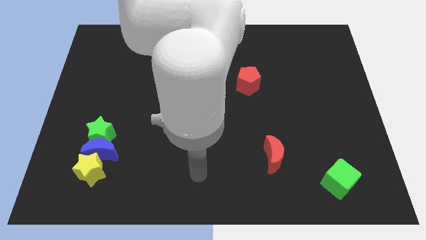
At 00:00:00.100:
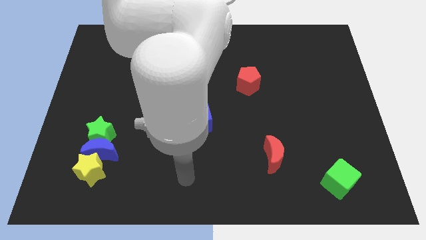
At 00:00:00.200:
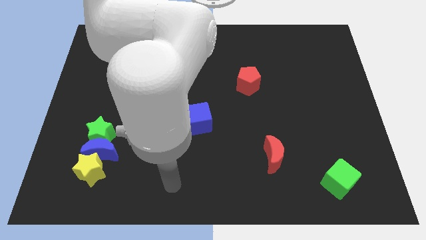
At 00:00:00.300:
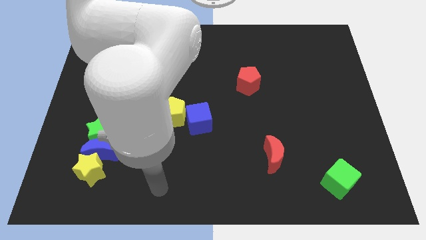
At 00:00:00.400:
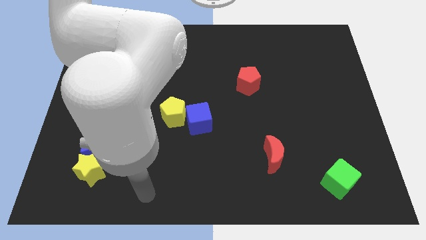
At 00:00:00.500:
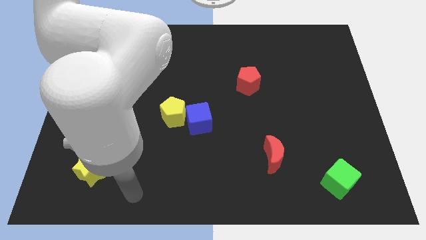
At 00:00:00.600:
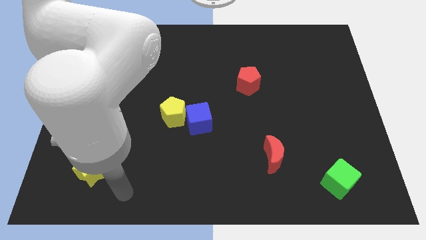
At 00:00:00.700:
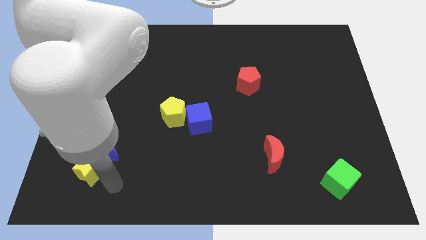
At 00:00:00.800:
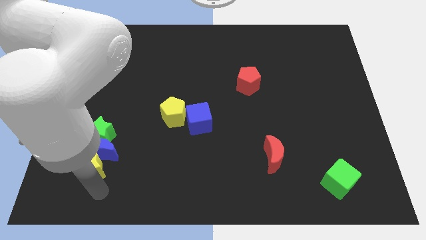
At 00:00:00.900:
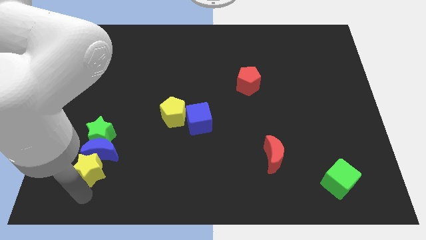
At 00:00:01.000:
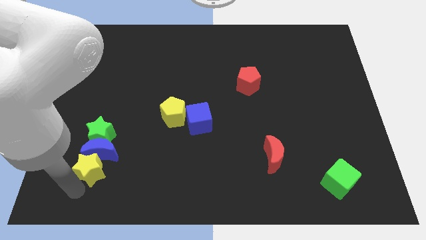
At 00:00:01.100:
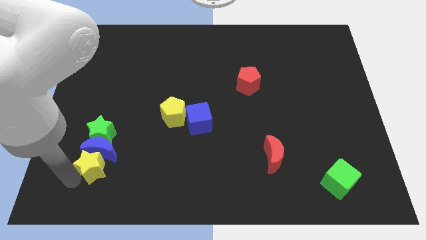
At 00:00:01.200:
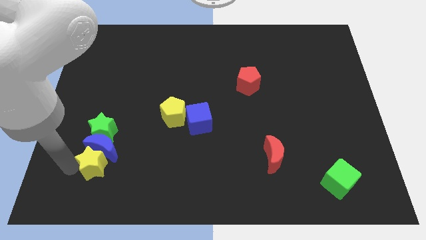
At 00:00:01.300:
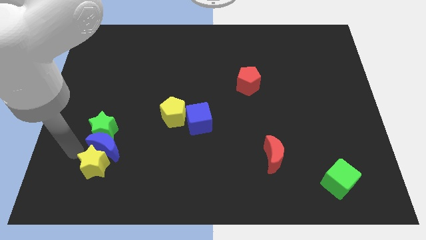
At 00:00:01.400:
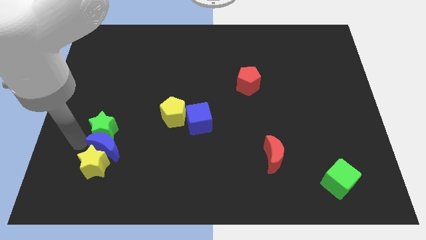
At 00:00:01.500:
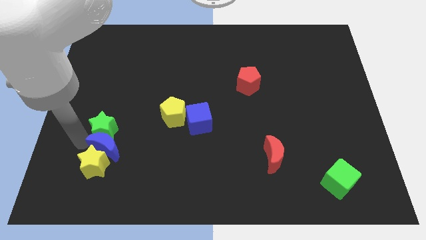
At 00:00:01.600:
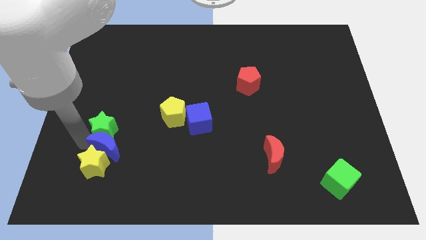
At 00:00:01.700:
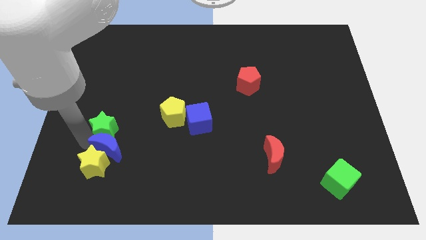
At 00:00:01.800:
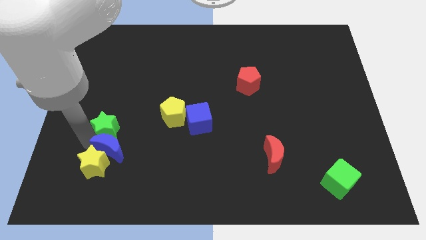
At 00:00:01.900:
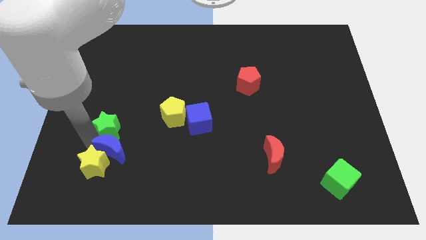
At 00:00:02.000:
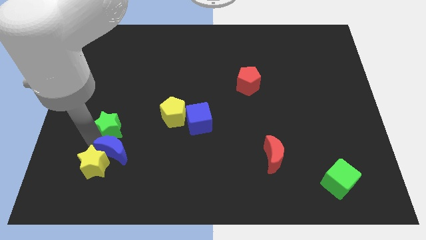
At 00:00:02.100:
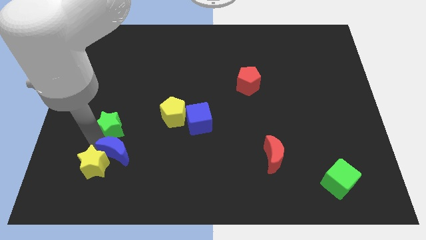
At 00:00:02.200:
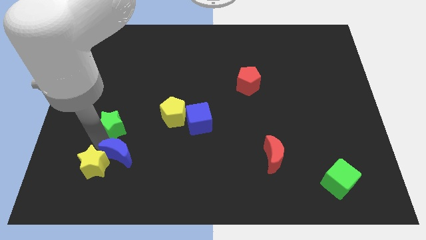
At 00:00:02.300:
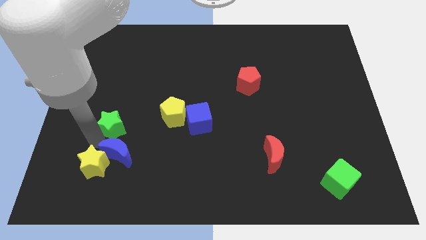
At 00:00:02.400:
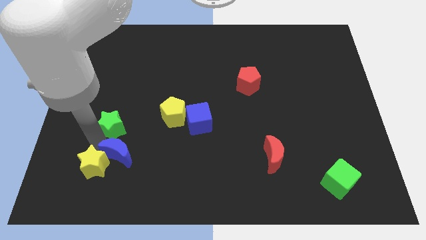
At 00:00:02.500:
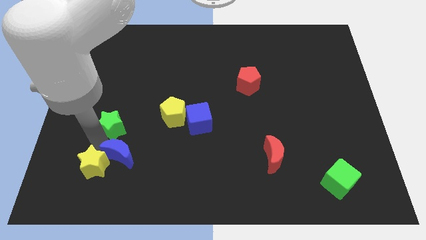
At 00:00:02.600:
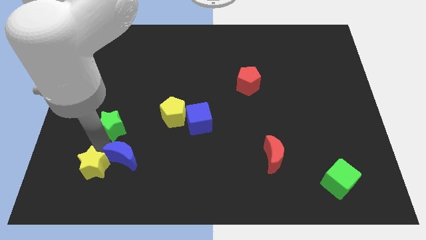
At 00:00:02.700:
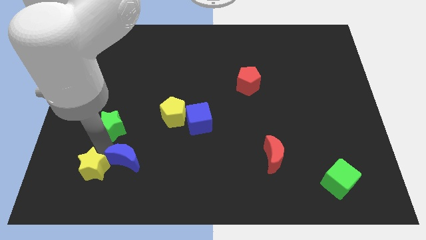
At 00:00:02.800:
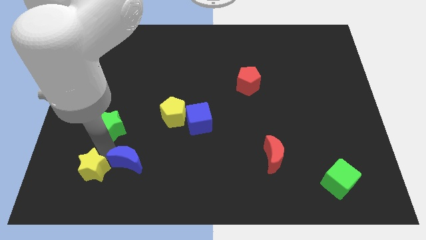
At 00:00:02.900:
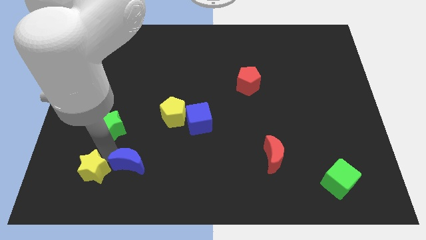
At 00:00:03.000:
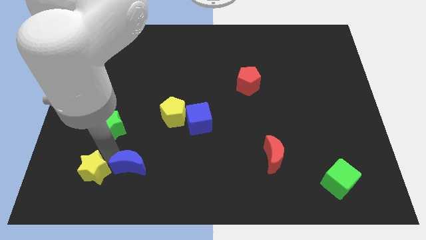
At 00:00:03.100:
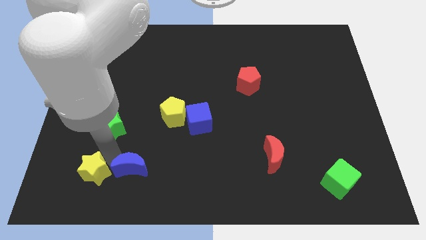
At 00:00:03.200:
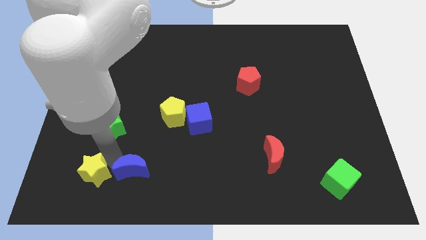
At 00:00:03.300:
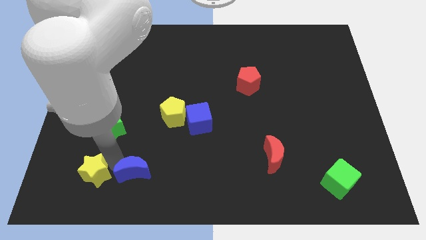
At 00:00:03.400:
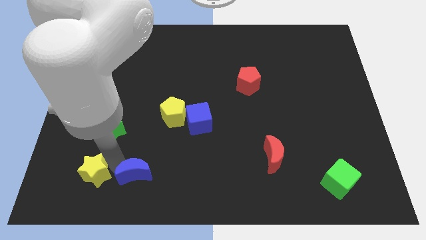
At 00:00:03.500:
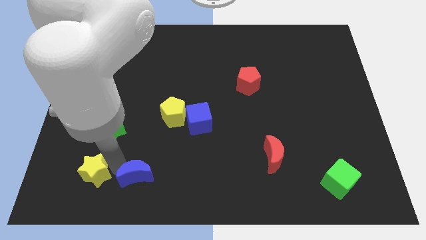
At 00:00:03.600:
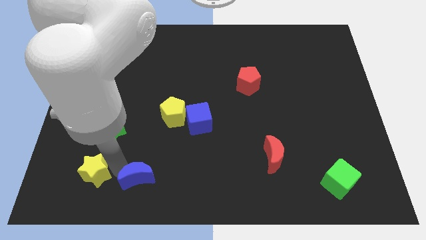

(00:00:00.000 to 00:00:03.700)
move the blue moon away from the green star and yellow star

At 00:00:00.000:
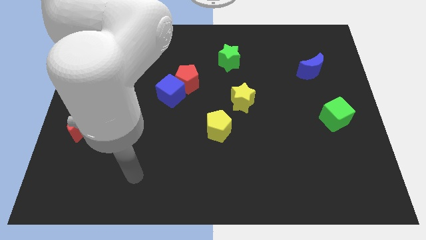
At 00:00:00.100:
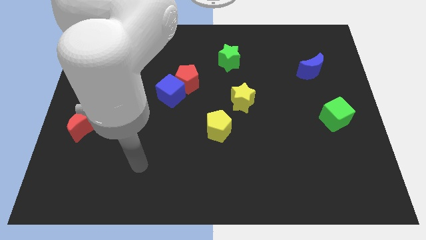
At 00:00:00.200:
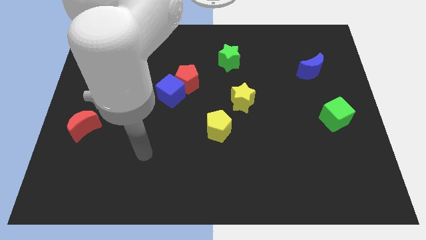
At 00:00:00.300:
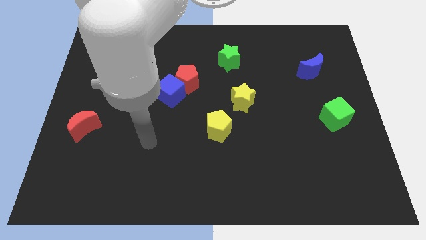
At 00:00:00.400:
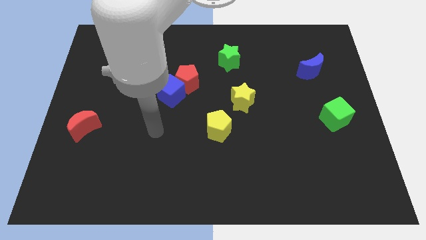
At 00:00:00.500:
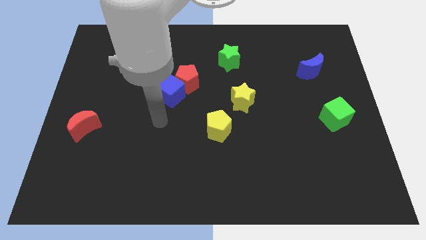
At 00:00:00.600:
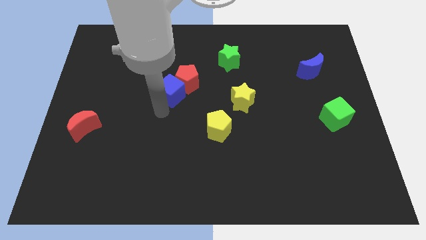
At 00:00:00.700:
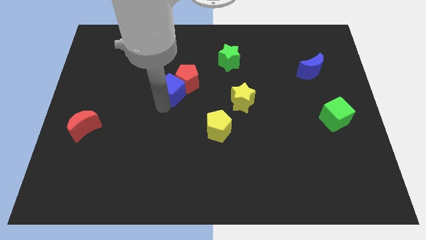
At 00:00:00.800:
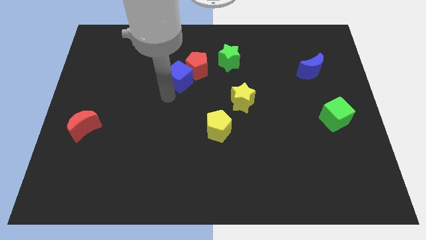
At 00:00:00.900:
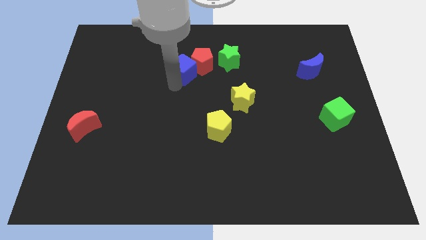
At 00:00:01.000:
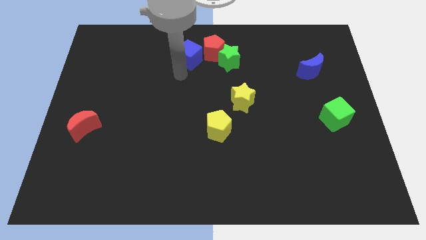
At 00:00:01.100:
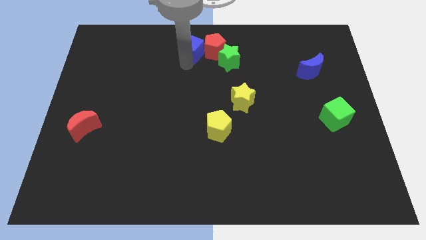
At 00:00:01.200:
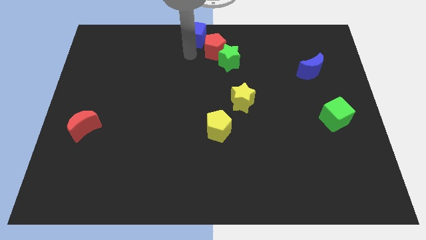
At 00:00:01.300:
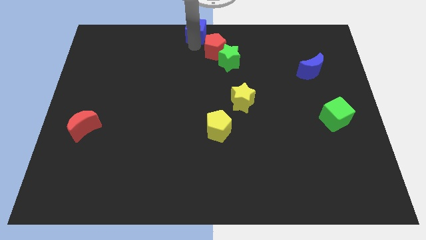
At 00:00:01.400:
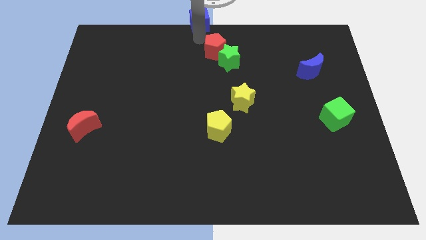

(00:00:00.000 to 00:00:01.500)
move the red pentagon away from the blue cube

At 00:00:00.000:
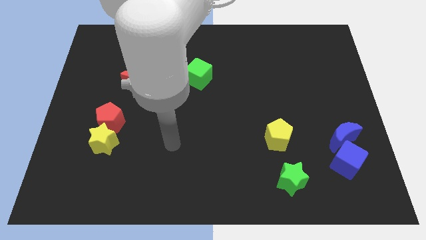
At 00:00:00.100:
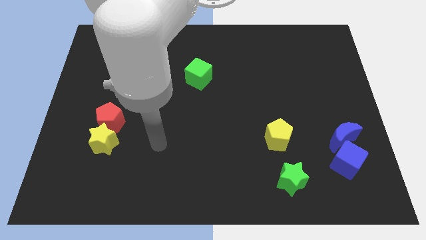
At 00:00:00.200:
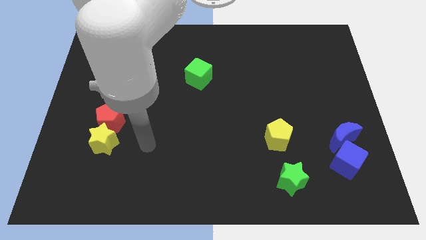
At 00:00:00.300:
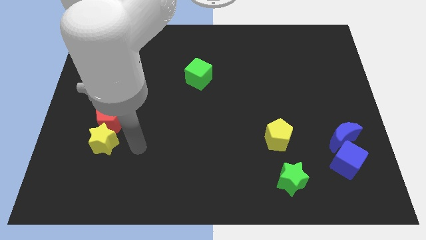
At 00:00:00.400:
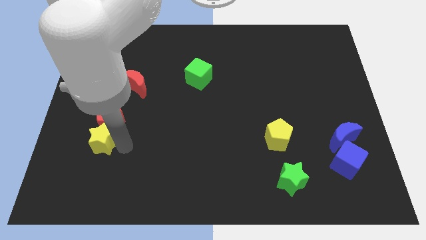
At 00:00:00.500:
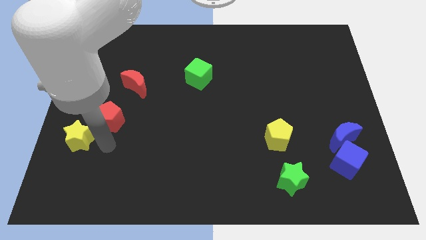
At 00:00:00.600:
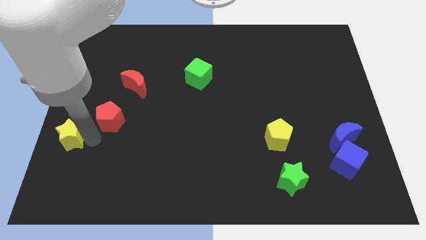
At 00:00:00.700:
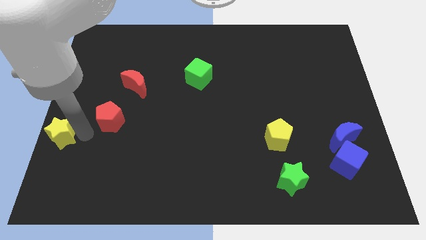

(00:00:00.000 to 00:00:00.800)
pull the red pentagon apart from the yellow star

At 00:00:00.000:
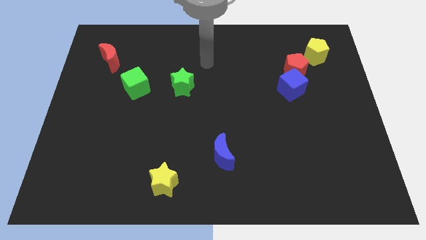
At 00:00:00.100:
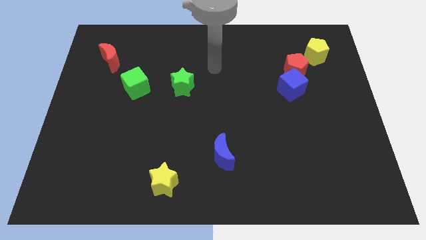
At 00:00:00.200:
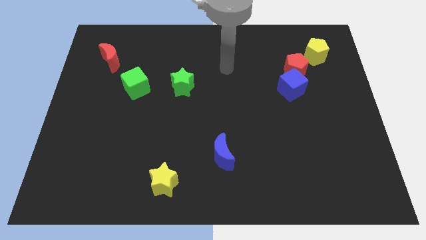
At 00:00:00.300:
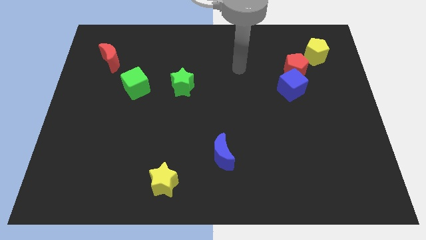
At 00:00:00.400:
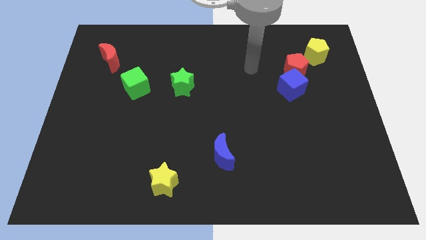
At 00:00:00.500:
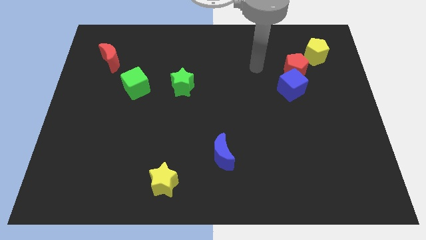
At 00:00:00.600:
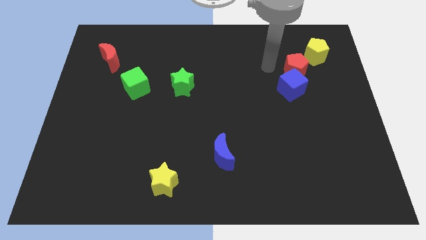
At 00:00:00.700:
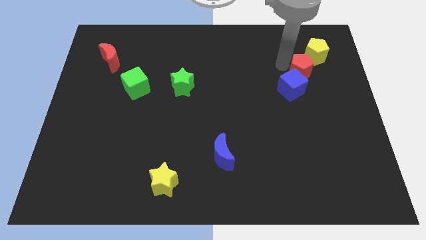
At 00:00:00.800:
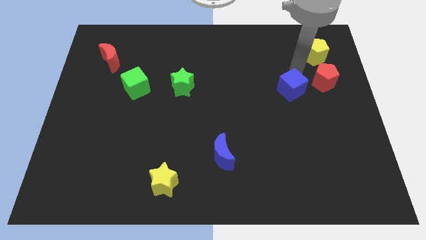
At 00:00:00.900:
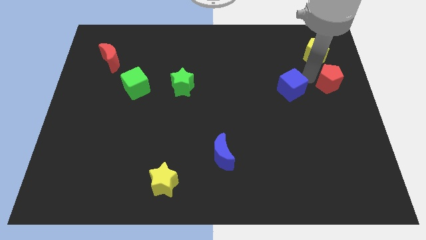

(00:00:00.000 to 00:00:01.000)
move the blue cube away from the red pentagon

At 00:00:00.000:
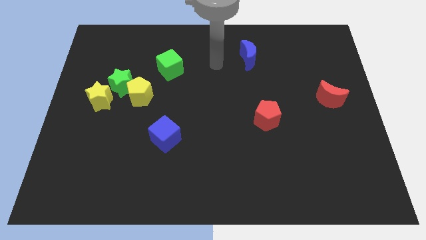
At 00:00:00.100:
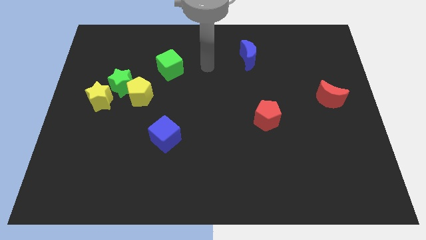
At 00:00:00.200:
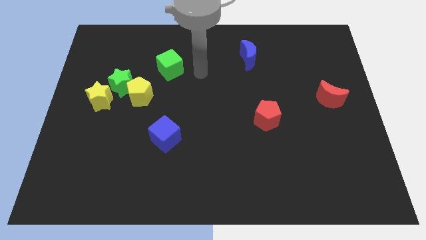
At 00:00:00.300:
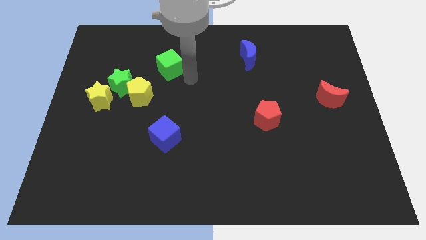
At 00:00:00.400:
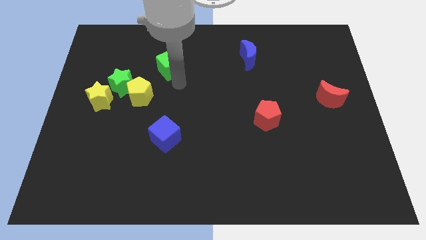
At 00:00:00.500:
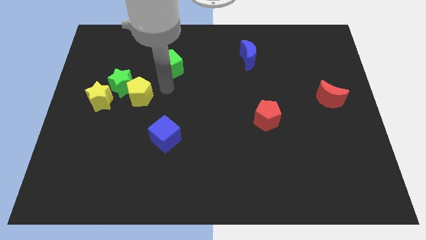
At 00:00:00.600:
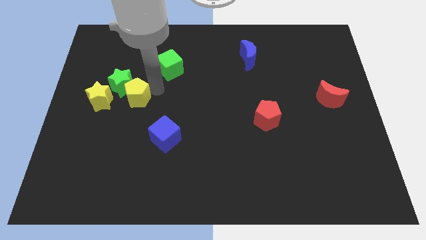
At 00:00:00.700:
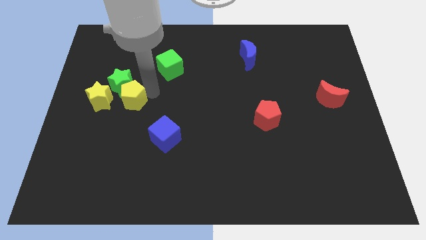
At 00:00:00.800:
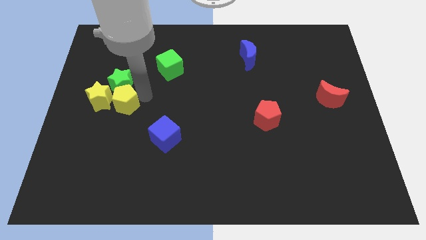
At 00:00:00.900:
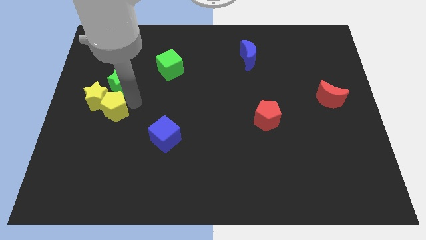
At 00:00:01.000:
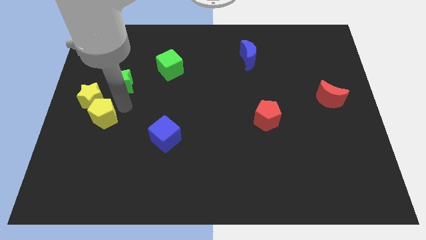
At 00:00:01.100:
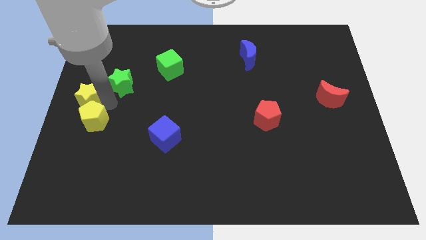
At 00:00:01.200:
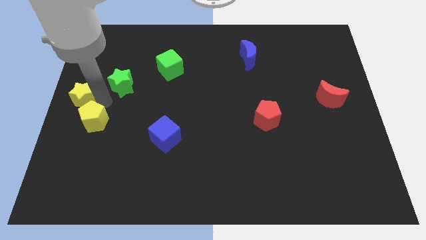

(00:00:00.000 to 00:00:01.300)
move the green star away from the yellow pentagon and yellow star

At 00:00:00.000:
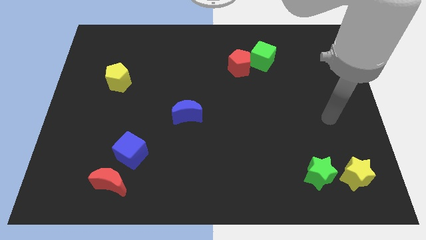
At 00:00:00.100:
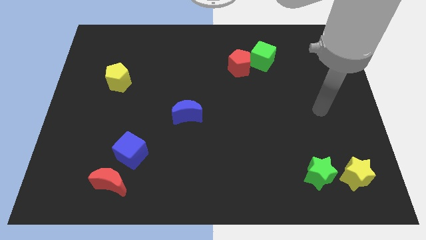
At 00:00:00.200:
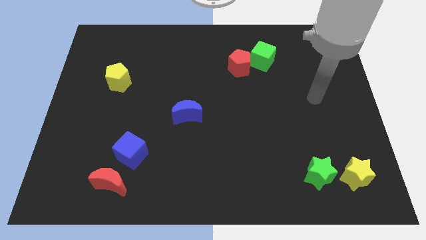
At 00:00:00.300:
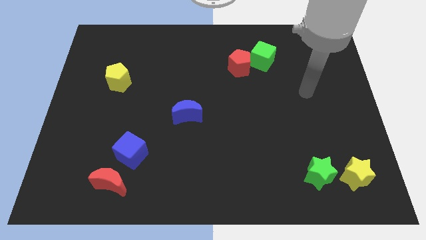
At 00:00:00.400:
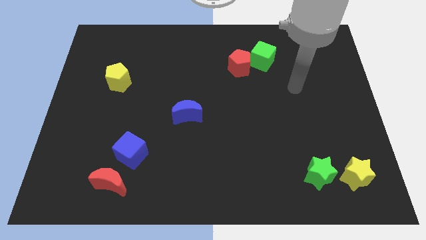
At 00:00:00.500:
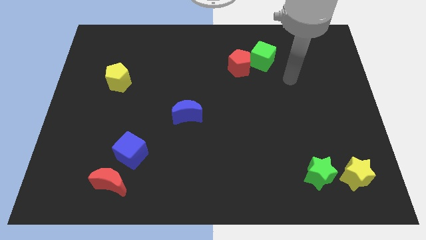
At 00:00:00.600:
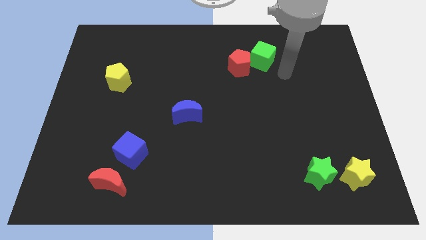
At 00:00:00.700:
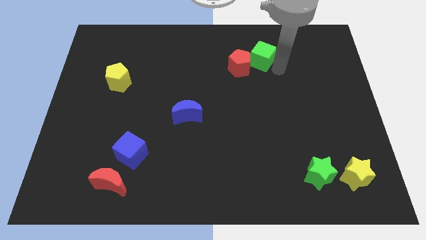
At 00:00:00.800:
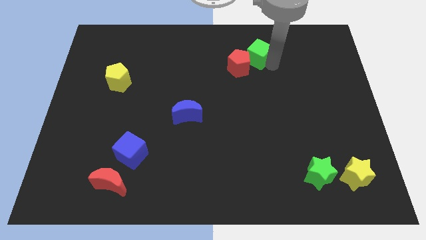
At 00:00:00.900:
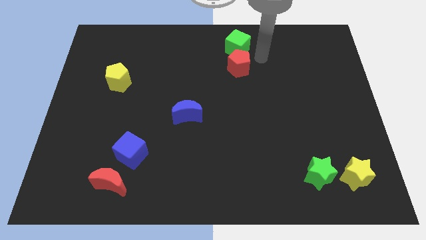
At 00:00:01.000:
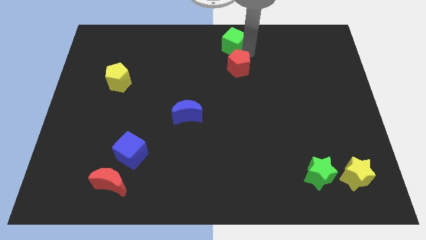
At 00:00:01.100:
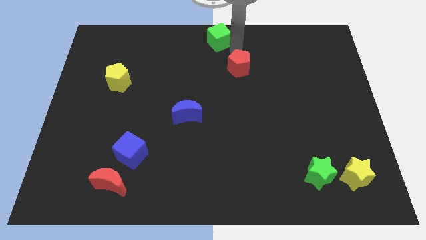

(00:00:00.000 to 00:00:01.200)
pull the red pentagon apart from the green cube
